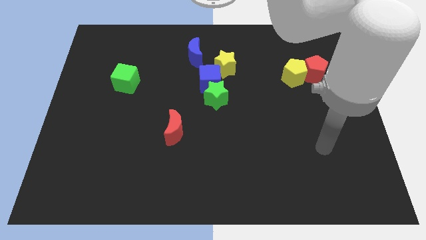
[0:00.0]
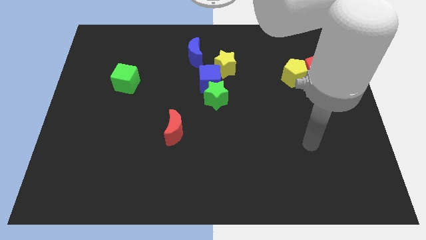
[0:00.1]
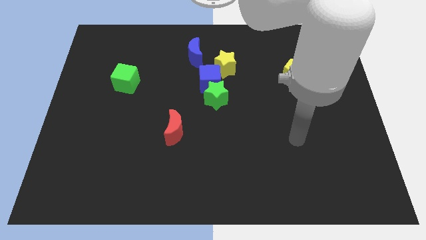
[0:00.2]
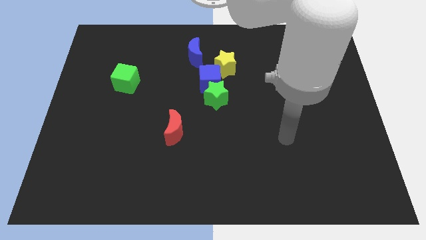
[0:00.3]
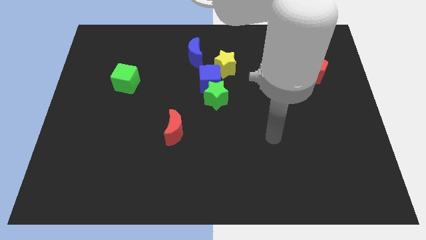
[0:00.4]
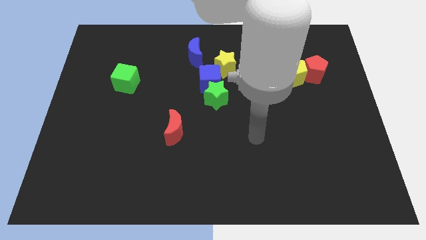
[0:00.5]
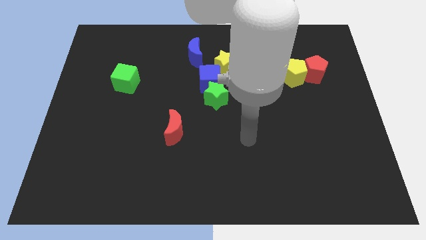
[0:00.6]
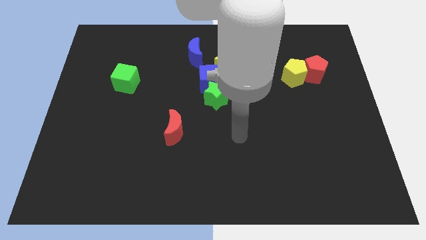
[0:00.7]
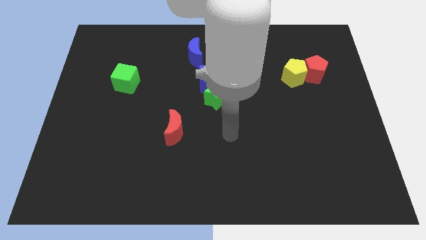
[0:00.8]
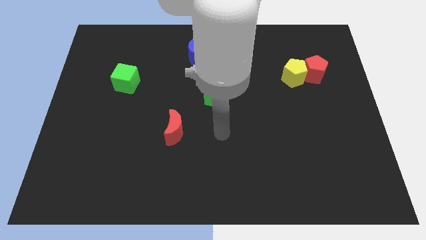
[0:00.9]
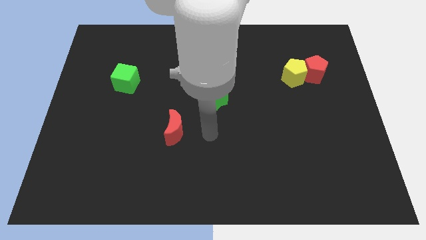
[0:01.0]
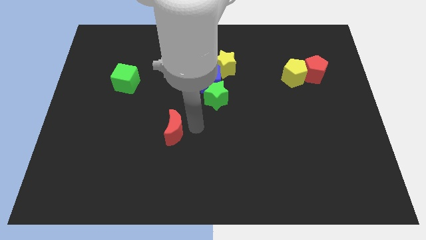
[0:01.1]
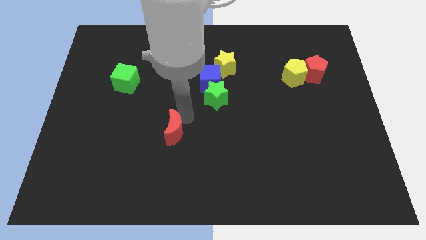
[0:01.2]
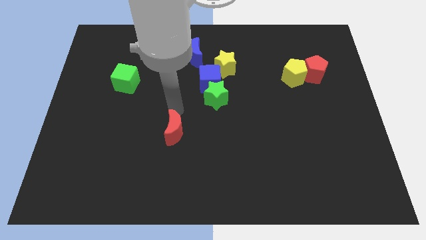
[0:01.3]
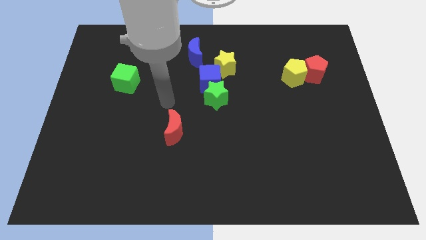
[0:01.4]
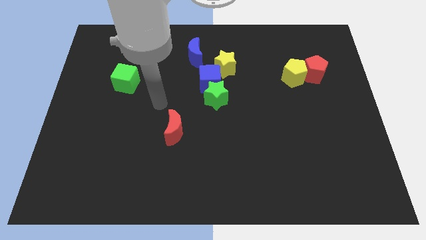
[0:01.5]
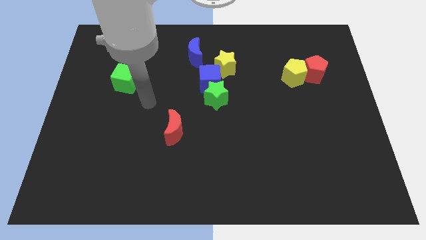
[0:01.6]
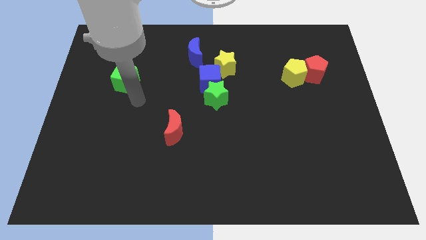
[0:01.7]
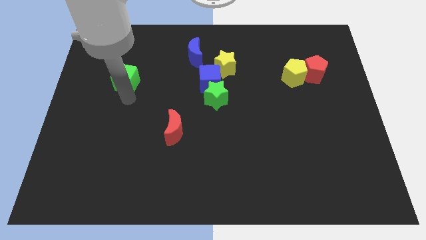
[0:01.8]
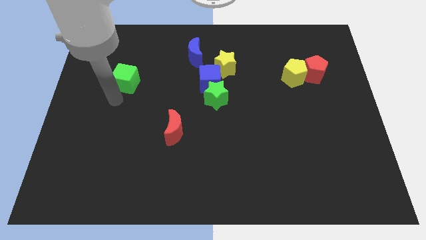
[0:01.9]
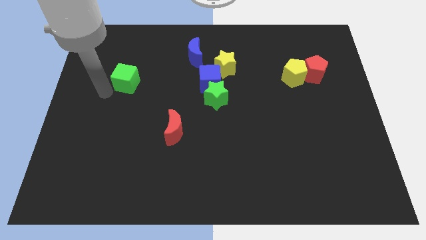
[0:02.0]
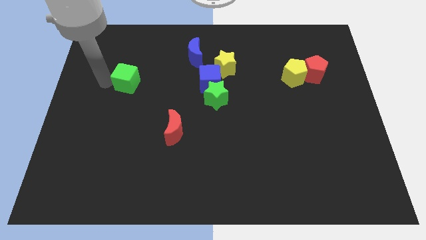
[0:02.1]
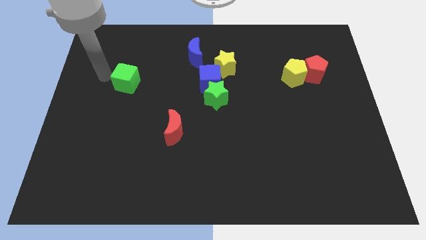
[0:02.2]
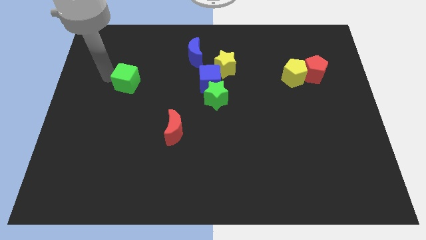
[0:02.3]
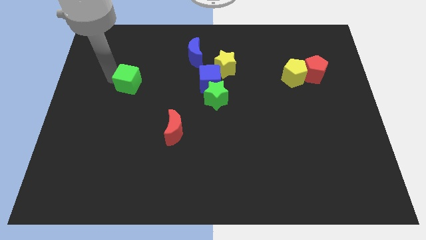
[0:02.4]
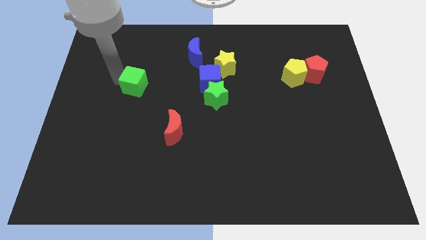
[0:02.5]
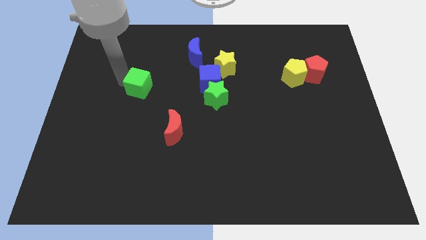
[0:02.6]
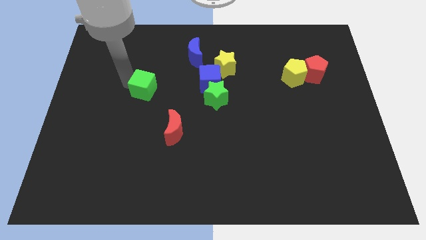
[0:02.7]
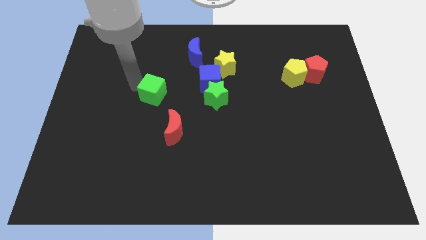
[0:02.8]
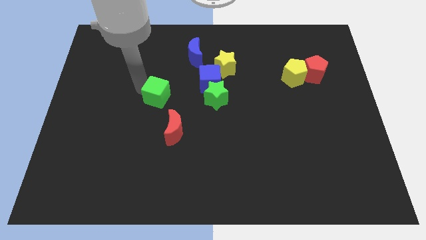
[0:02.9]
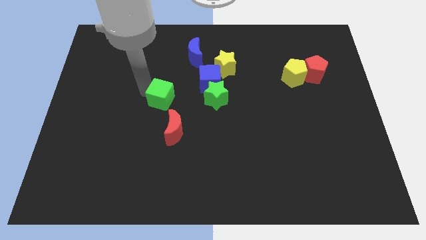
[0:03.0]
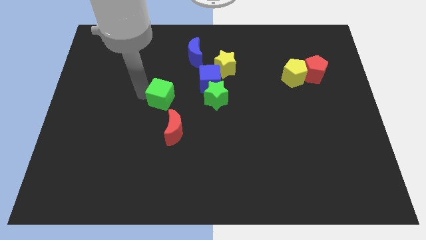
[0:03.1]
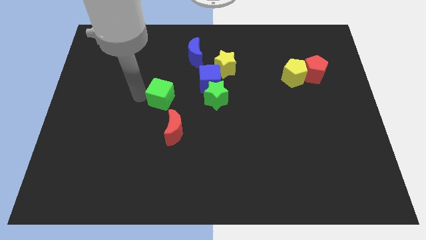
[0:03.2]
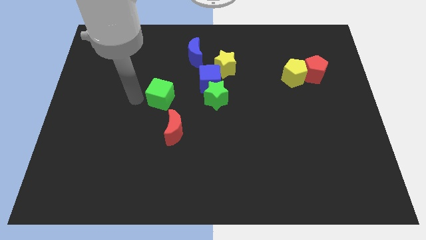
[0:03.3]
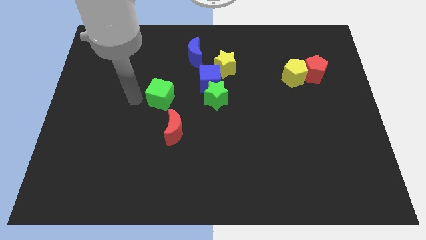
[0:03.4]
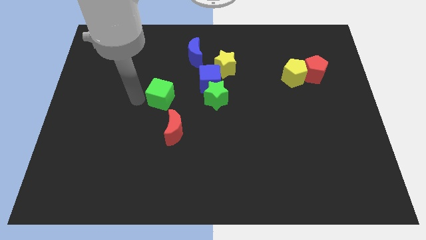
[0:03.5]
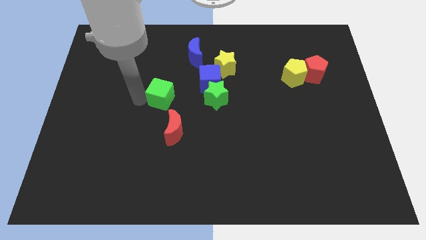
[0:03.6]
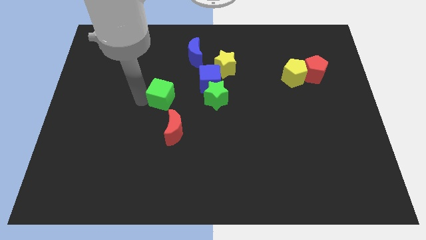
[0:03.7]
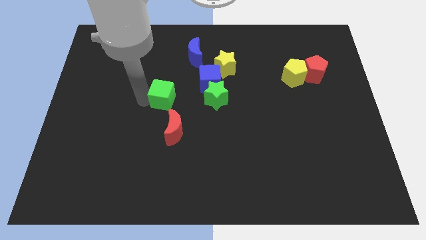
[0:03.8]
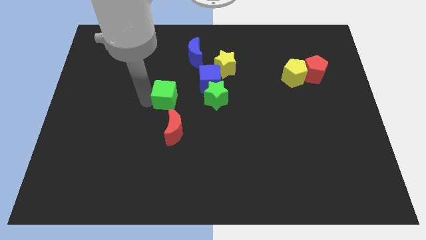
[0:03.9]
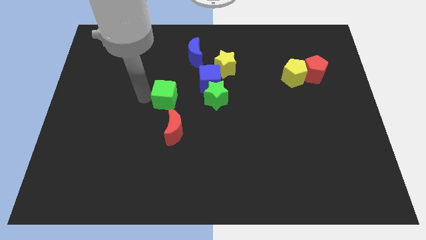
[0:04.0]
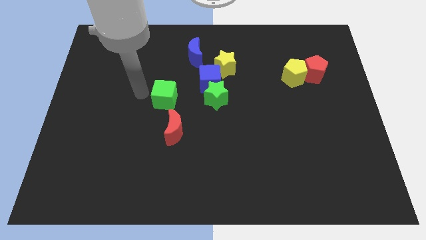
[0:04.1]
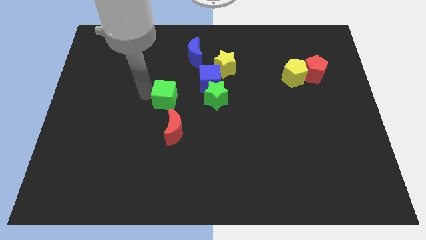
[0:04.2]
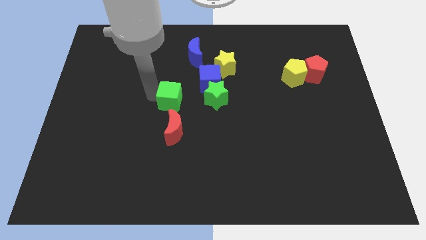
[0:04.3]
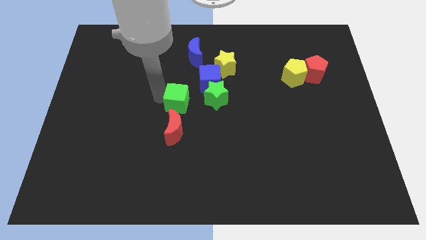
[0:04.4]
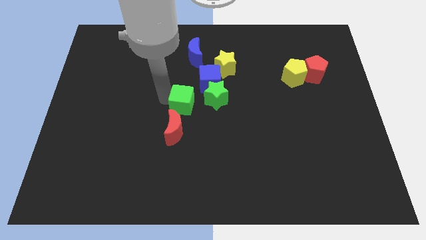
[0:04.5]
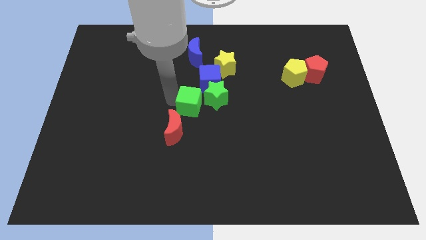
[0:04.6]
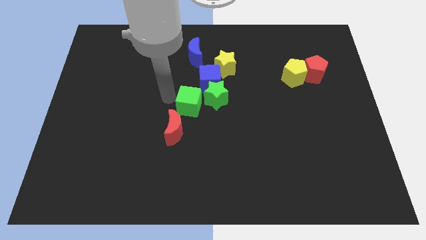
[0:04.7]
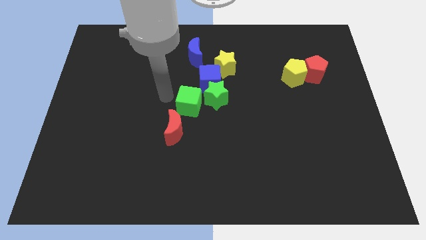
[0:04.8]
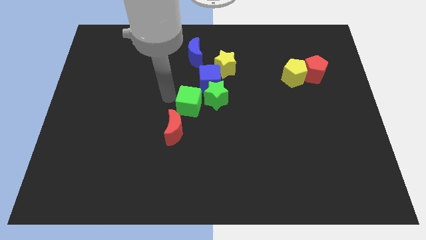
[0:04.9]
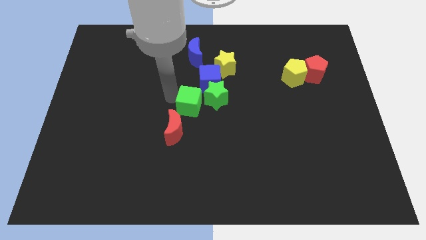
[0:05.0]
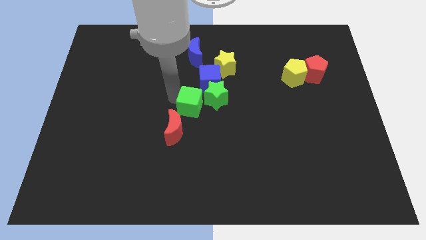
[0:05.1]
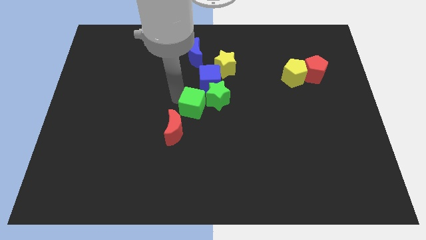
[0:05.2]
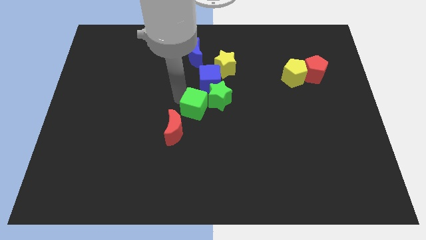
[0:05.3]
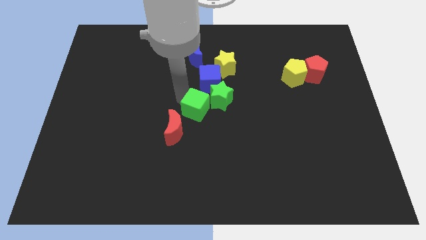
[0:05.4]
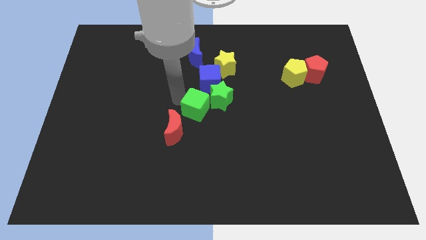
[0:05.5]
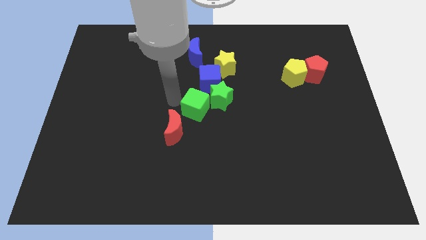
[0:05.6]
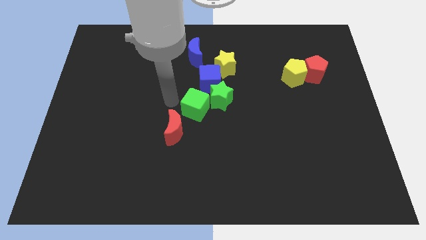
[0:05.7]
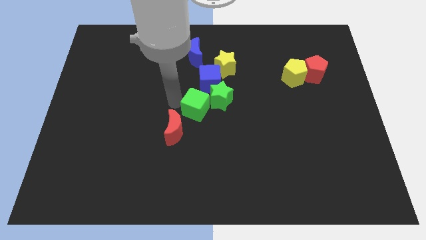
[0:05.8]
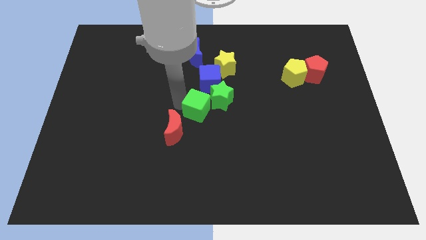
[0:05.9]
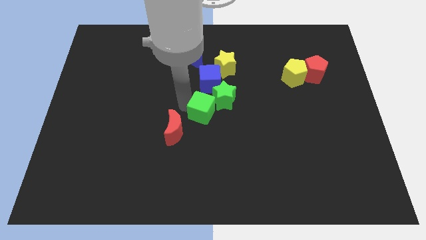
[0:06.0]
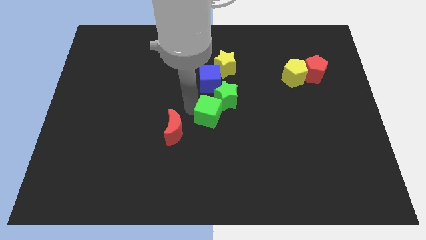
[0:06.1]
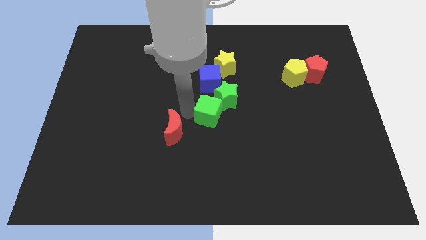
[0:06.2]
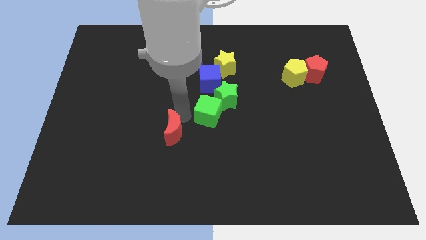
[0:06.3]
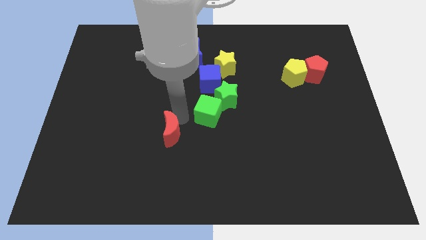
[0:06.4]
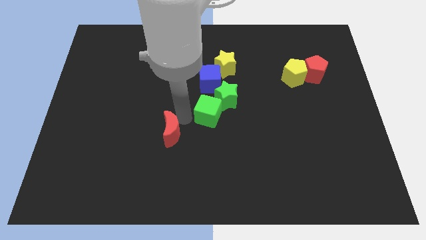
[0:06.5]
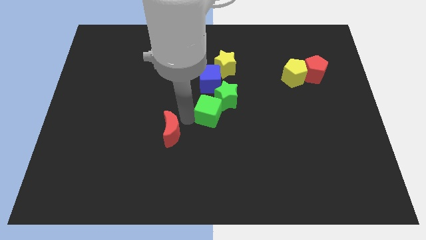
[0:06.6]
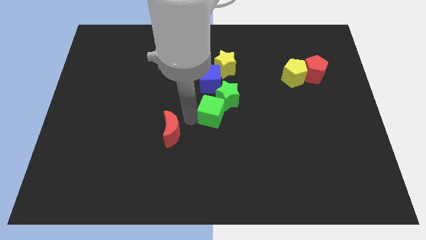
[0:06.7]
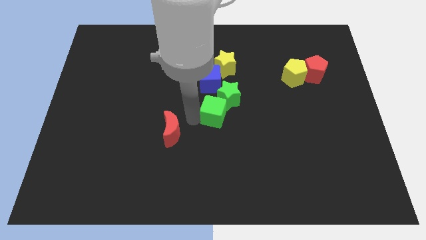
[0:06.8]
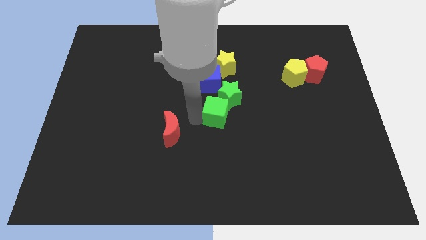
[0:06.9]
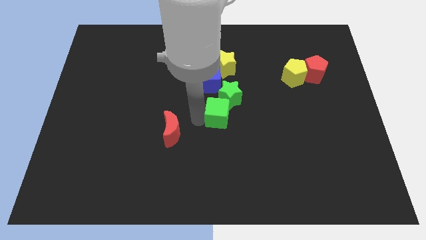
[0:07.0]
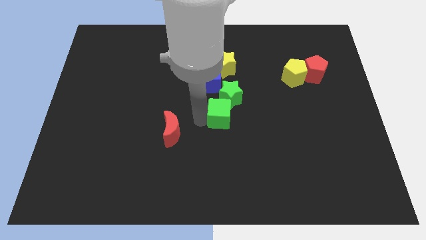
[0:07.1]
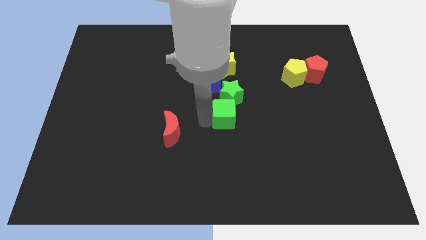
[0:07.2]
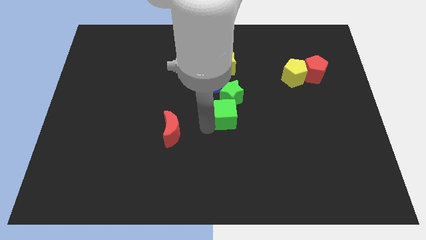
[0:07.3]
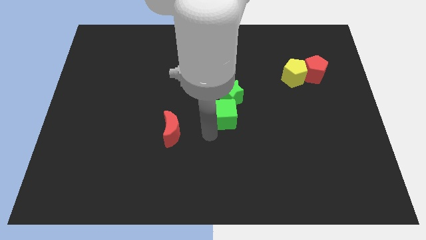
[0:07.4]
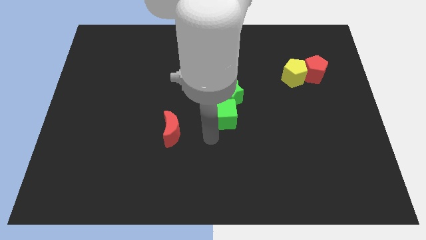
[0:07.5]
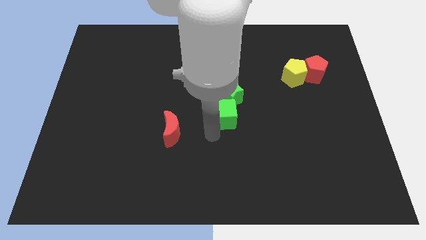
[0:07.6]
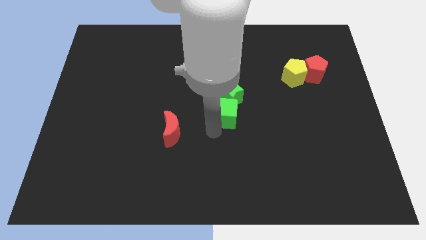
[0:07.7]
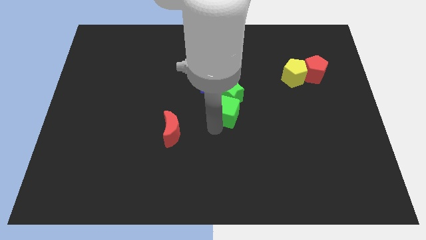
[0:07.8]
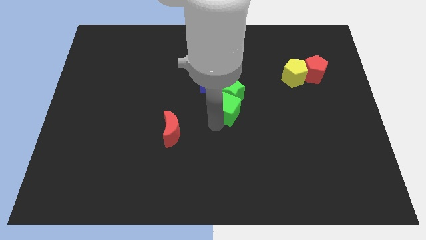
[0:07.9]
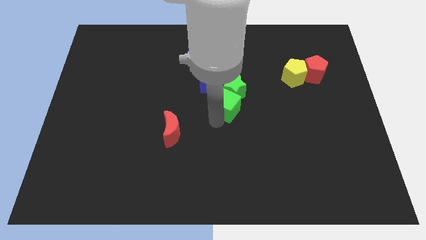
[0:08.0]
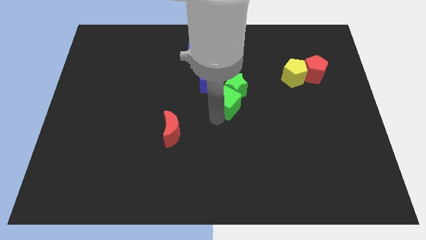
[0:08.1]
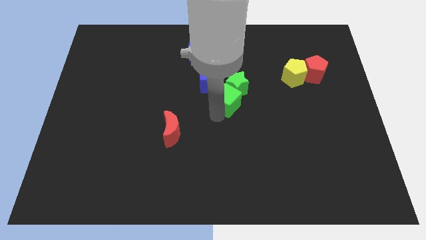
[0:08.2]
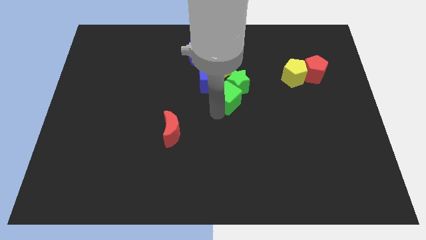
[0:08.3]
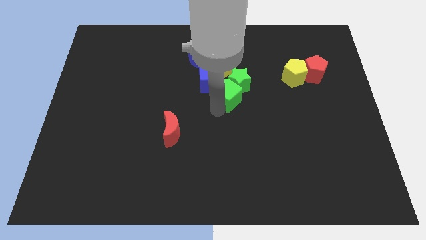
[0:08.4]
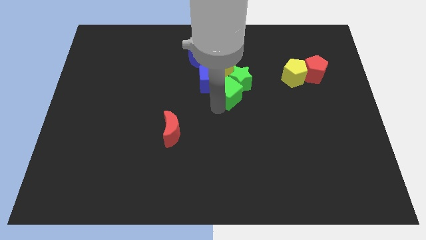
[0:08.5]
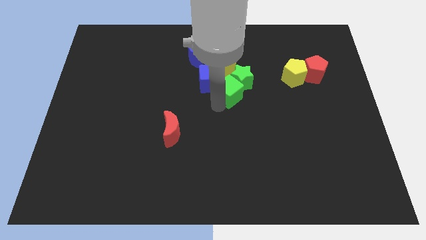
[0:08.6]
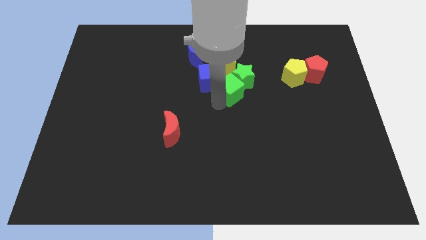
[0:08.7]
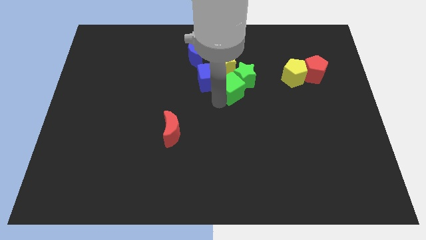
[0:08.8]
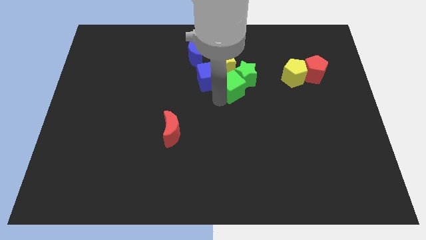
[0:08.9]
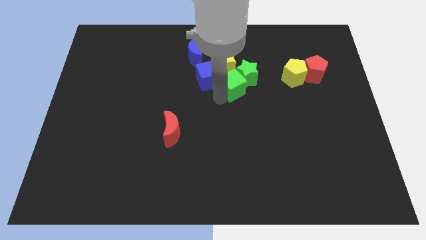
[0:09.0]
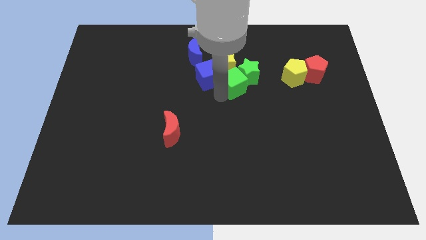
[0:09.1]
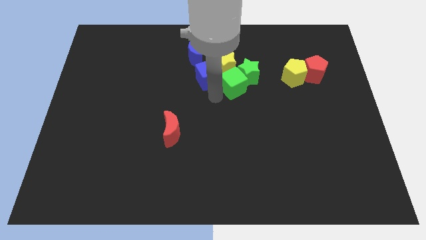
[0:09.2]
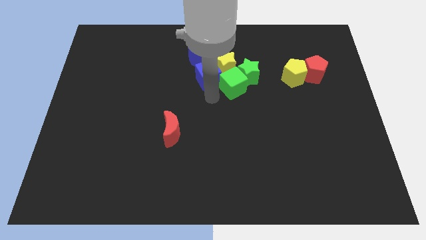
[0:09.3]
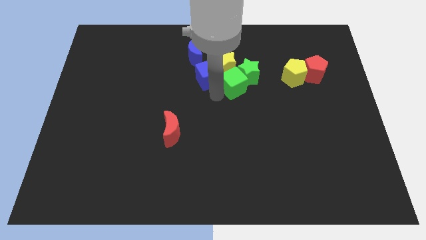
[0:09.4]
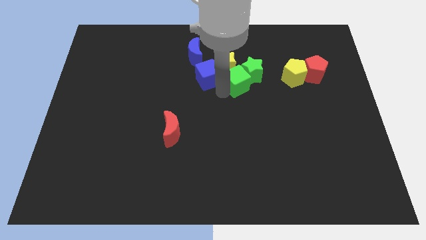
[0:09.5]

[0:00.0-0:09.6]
put the green cube left of the yellow pentagon
